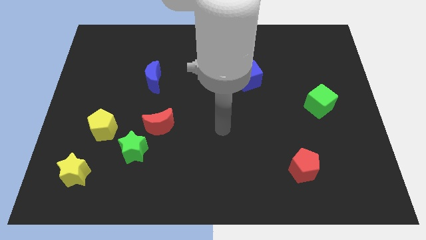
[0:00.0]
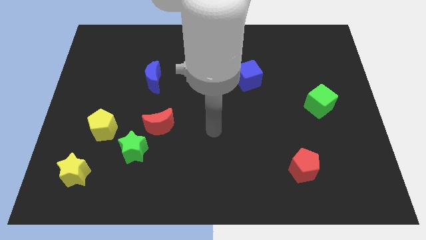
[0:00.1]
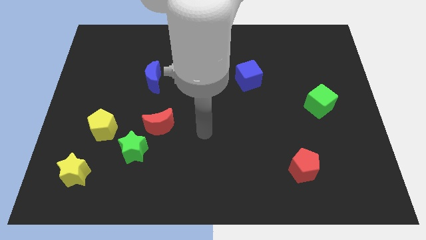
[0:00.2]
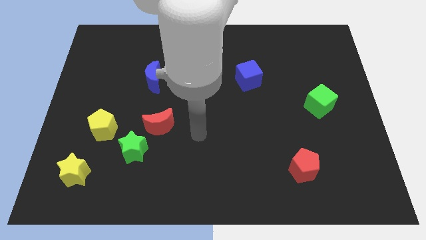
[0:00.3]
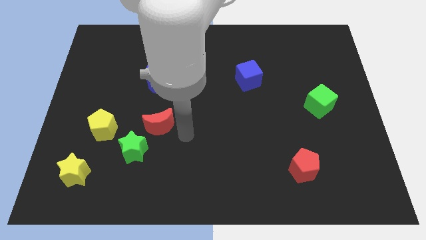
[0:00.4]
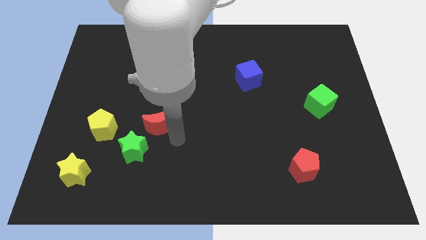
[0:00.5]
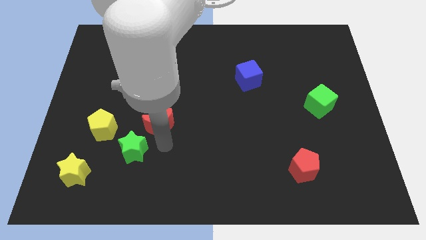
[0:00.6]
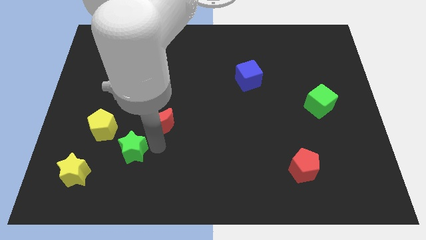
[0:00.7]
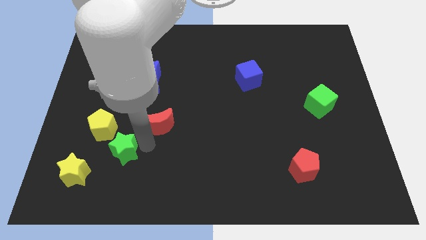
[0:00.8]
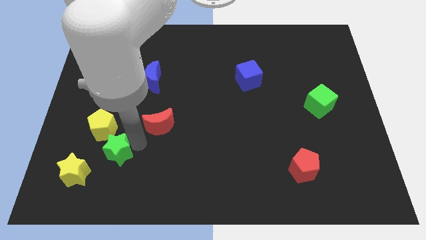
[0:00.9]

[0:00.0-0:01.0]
pull the red moon apart from the green star

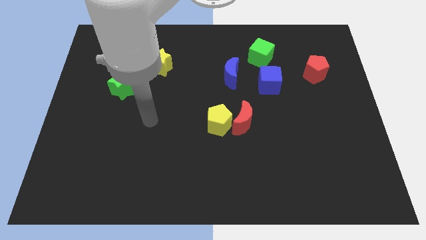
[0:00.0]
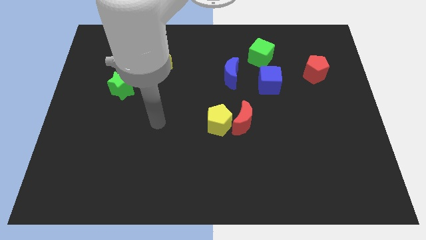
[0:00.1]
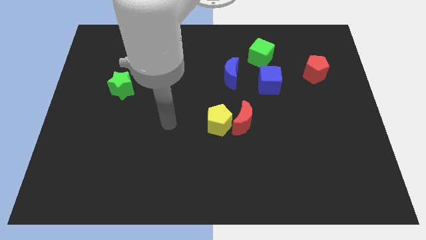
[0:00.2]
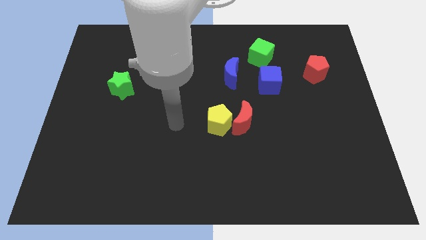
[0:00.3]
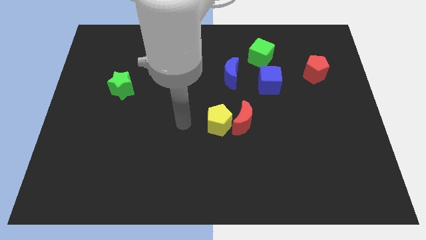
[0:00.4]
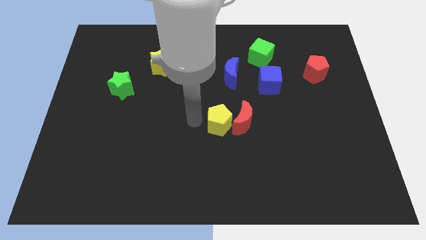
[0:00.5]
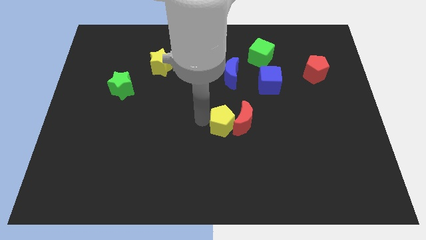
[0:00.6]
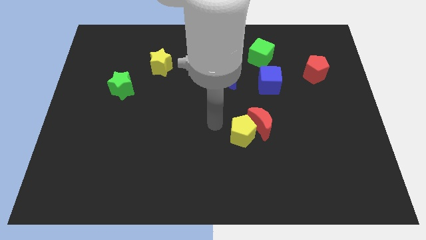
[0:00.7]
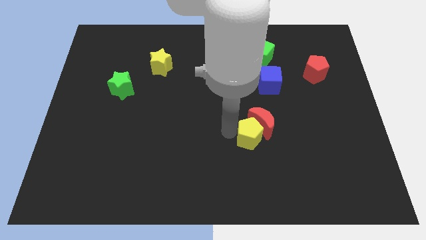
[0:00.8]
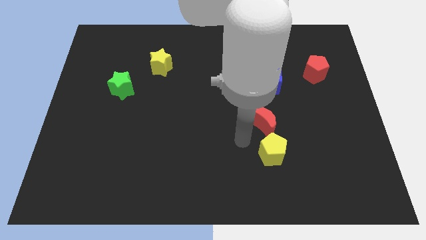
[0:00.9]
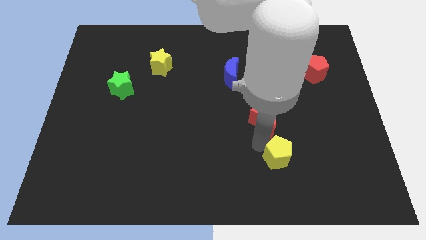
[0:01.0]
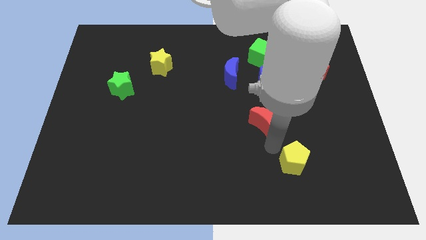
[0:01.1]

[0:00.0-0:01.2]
pull the red moon apart from the yellow pentagon

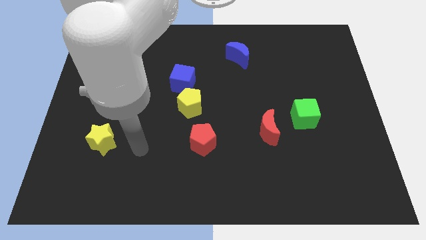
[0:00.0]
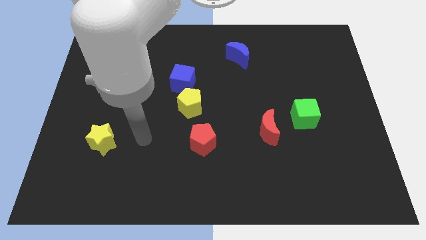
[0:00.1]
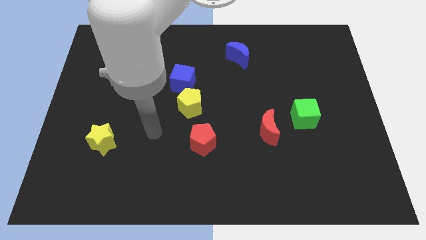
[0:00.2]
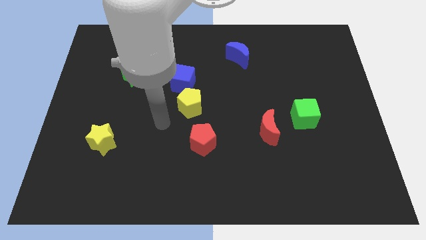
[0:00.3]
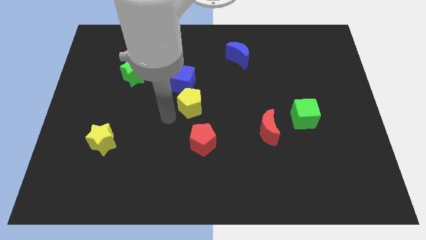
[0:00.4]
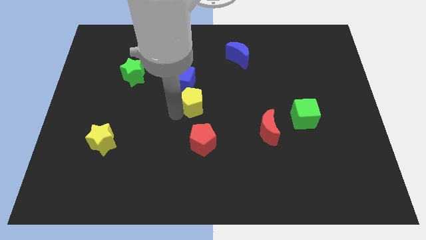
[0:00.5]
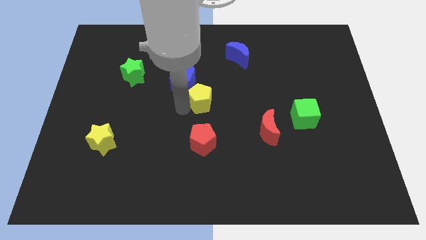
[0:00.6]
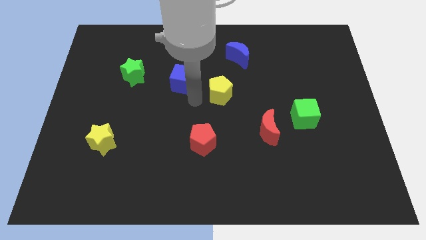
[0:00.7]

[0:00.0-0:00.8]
pull the blue cube apart from the yellow pentagon

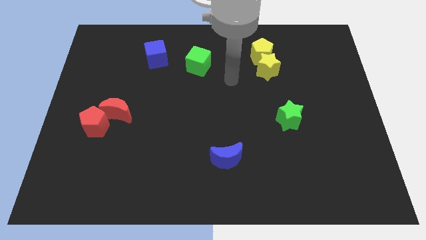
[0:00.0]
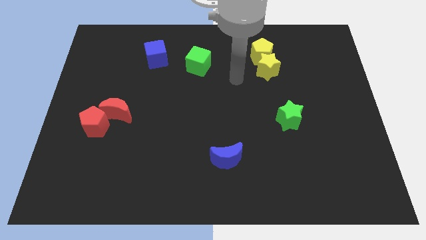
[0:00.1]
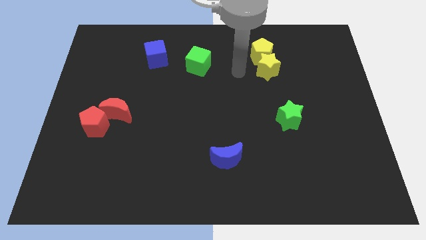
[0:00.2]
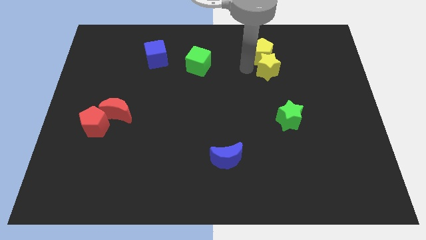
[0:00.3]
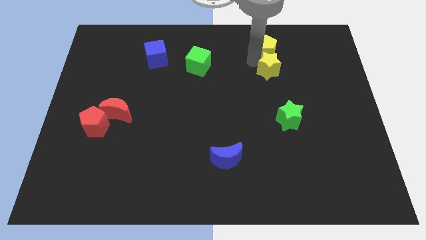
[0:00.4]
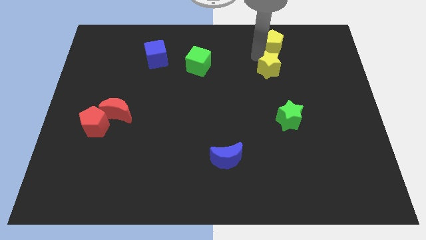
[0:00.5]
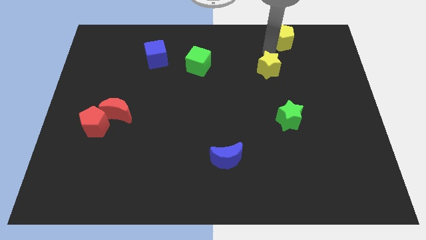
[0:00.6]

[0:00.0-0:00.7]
move the yellow star away from the yellow pentagon

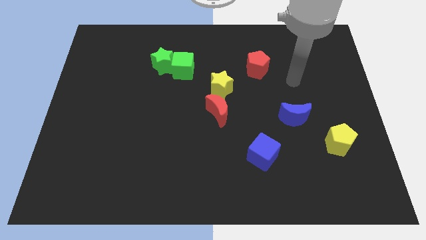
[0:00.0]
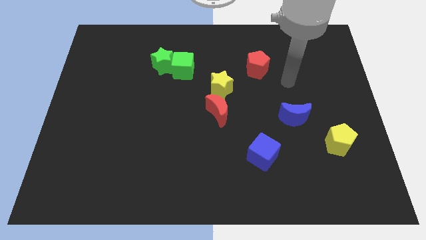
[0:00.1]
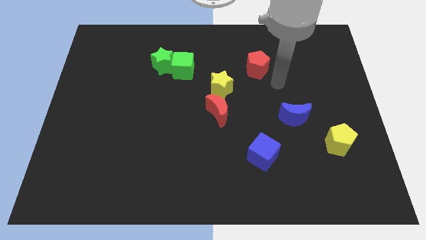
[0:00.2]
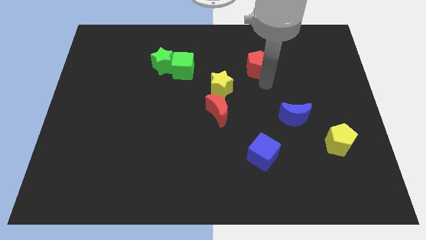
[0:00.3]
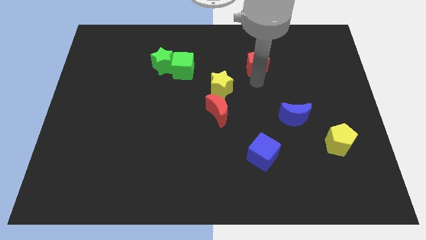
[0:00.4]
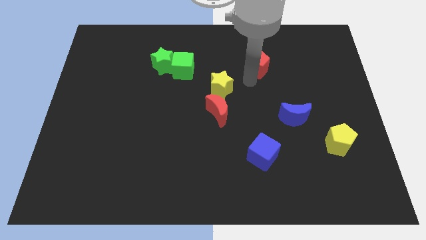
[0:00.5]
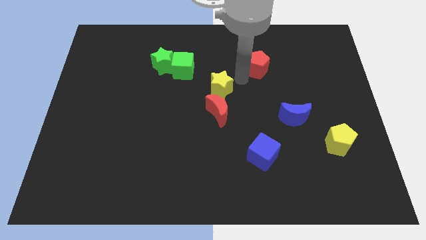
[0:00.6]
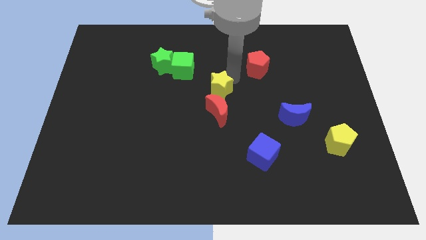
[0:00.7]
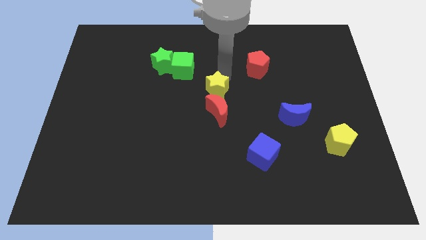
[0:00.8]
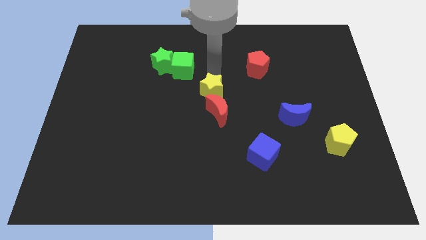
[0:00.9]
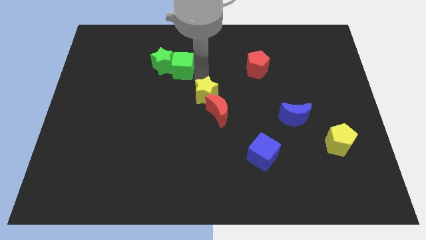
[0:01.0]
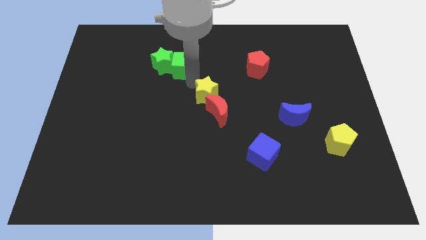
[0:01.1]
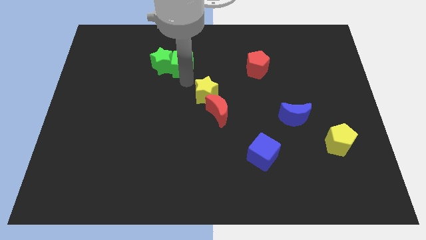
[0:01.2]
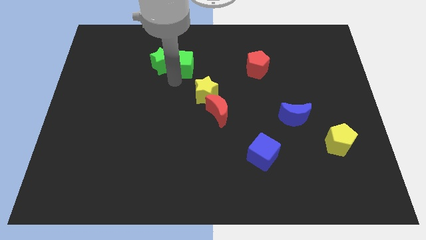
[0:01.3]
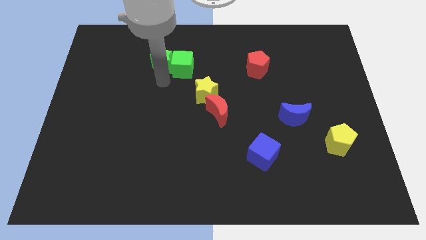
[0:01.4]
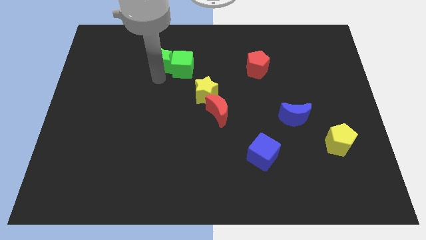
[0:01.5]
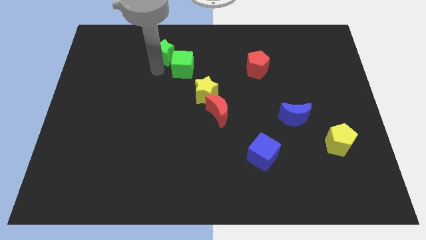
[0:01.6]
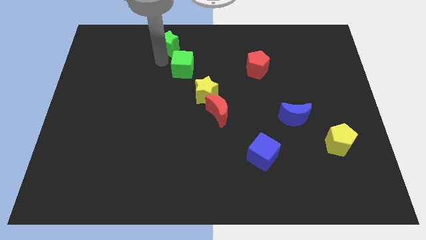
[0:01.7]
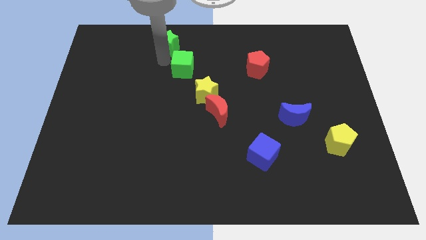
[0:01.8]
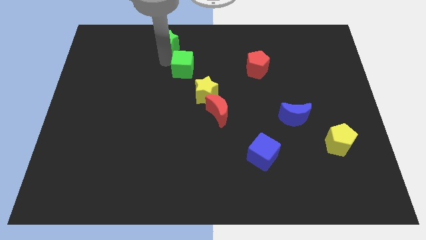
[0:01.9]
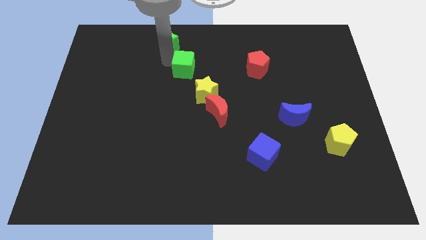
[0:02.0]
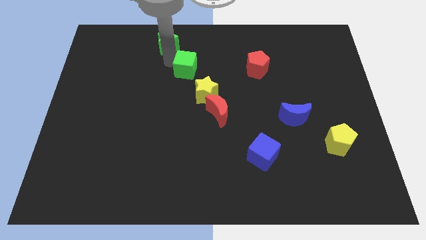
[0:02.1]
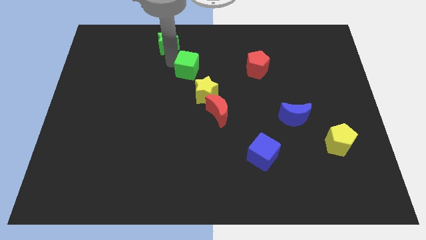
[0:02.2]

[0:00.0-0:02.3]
move the green cube away from the green star

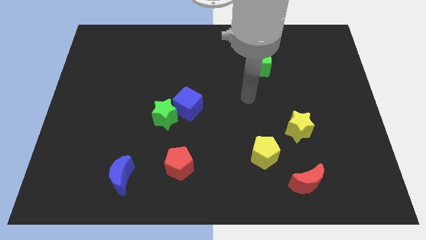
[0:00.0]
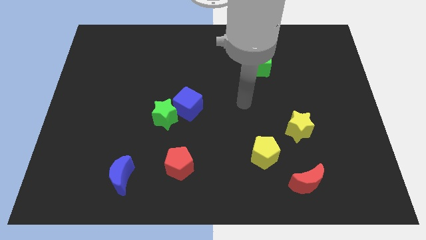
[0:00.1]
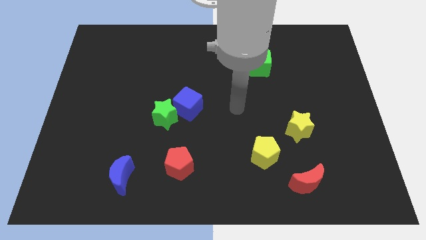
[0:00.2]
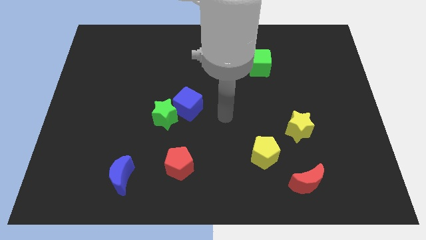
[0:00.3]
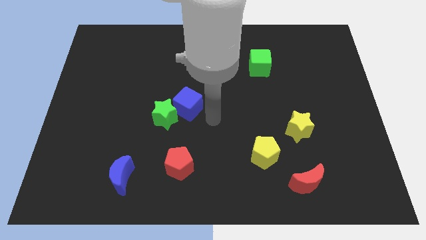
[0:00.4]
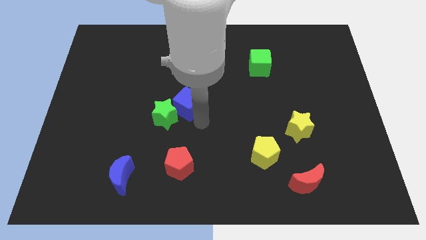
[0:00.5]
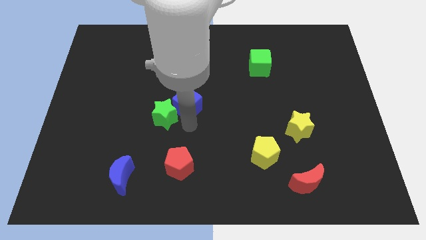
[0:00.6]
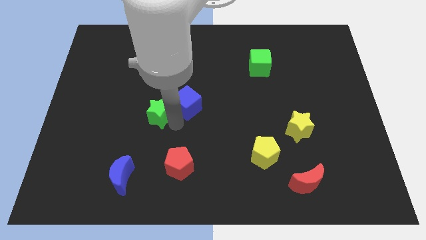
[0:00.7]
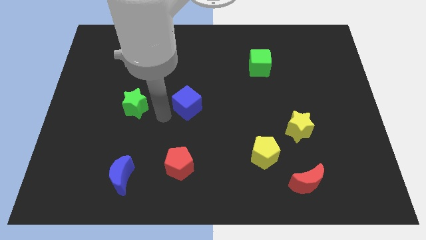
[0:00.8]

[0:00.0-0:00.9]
move the blue cube away from the green star

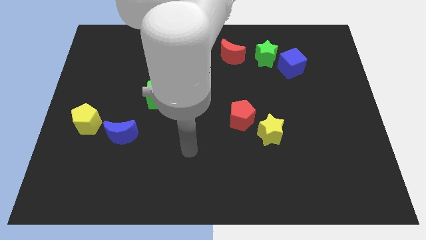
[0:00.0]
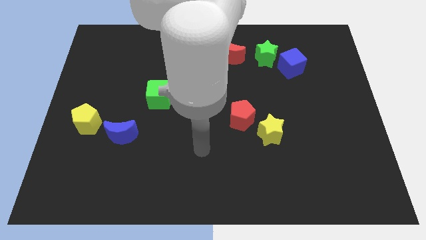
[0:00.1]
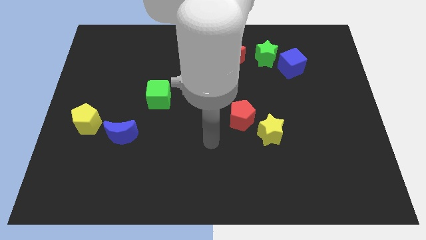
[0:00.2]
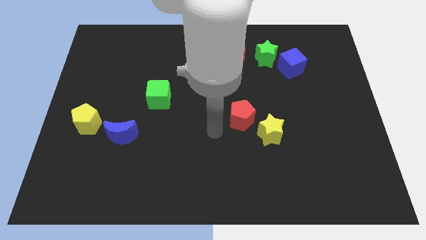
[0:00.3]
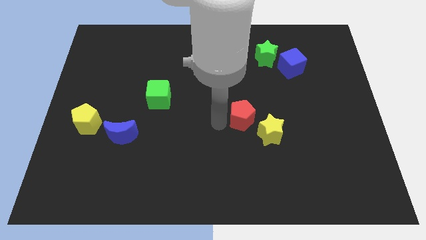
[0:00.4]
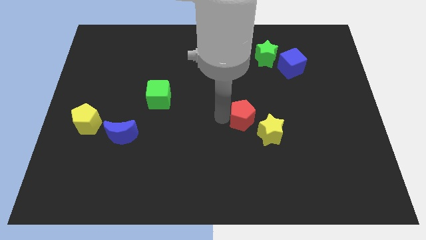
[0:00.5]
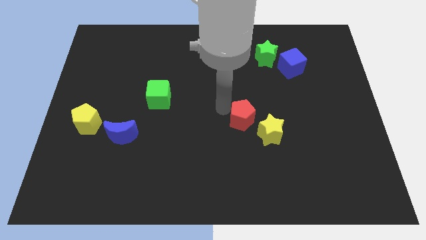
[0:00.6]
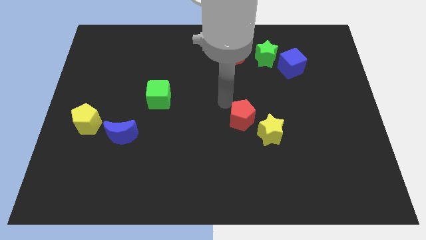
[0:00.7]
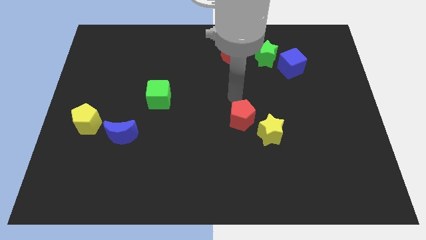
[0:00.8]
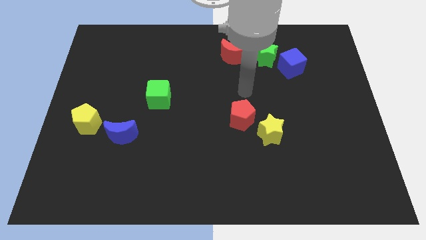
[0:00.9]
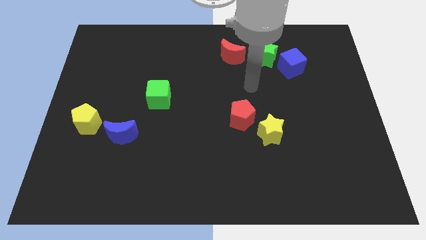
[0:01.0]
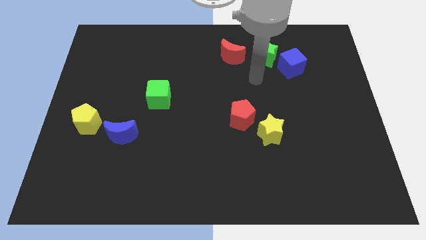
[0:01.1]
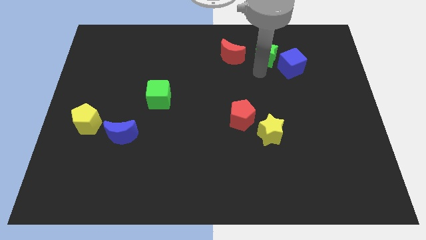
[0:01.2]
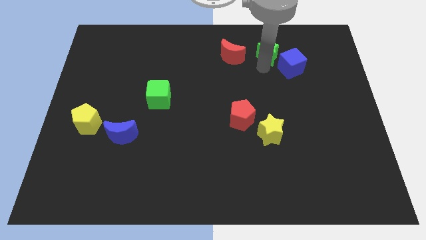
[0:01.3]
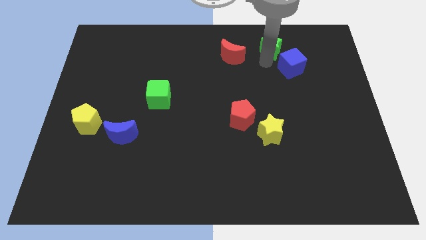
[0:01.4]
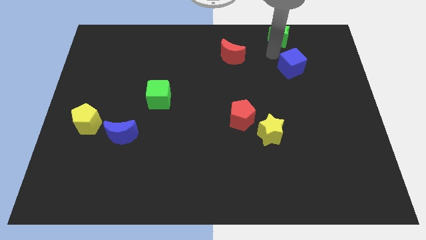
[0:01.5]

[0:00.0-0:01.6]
pull the blue cube apart from the green star

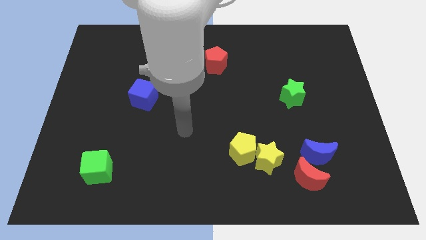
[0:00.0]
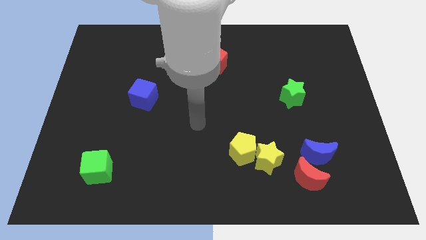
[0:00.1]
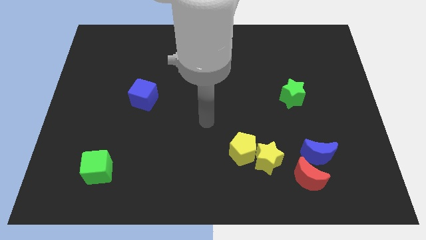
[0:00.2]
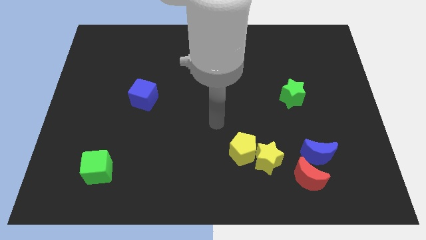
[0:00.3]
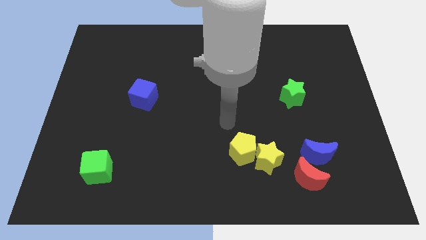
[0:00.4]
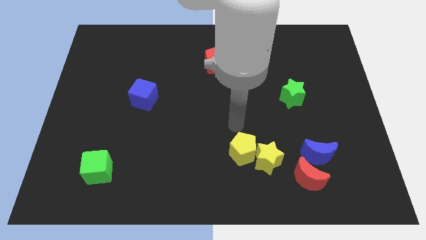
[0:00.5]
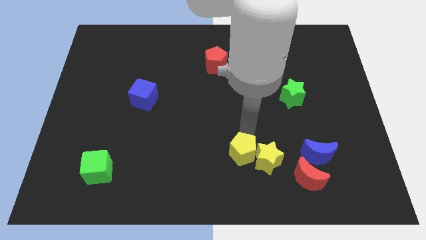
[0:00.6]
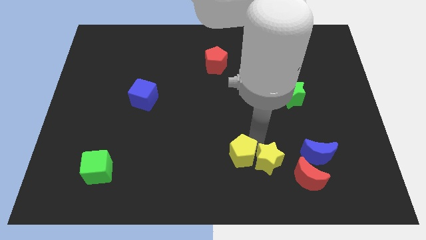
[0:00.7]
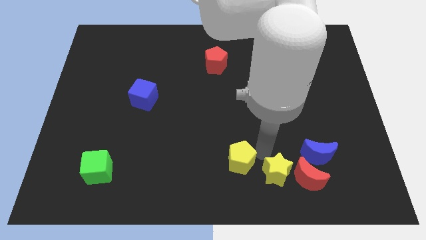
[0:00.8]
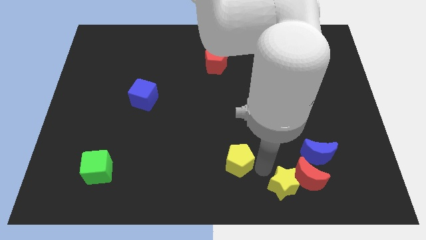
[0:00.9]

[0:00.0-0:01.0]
separate the yellow pentagon from the yellow star
